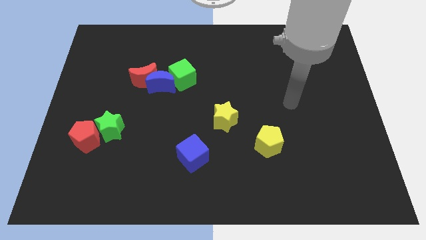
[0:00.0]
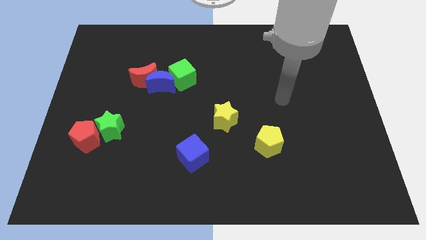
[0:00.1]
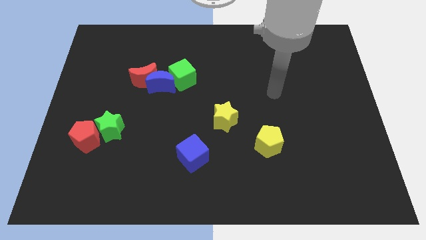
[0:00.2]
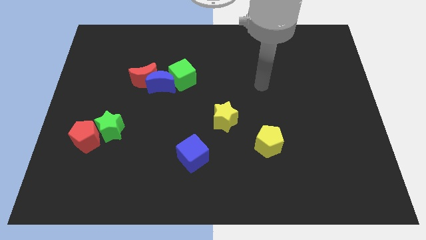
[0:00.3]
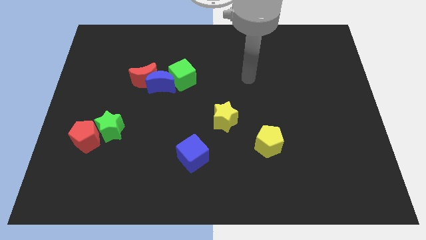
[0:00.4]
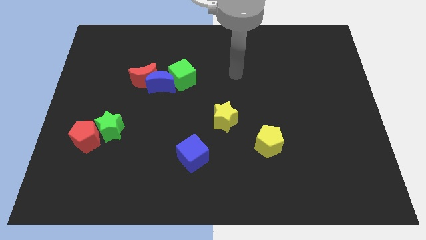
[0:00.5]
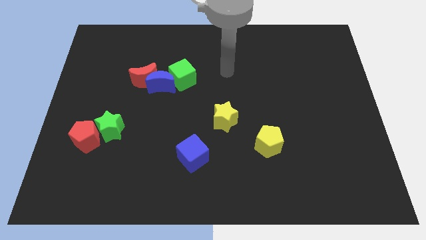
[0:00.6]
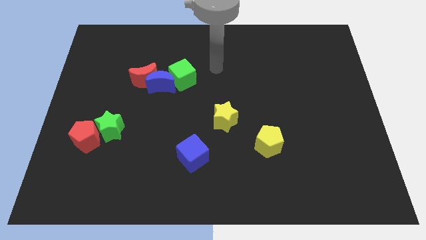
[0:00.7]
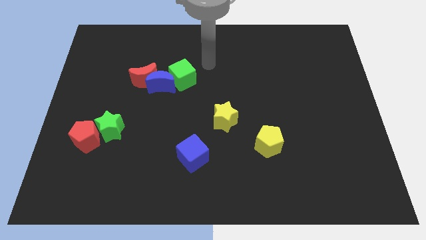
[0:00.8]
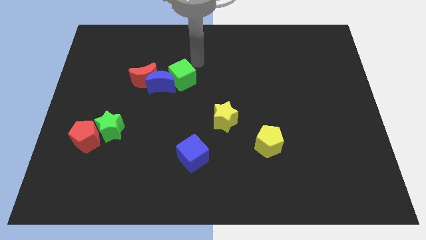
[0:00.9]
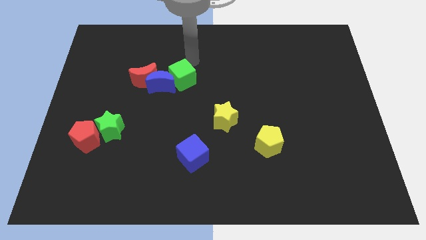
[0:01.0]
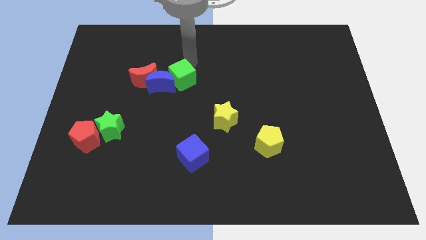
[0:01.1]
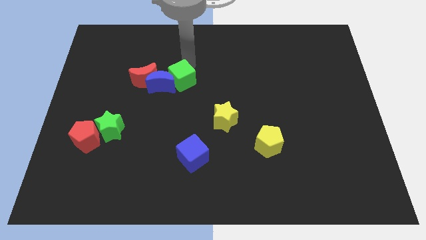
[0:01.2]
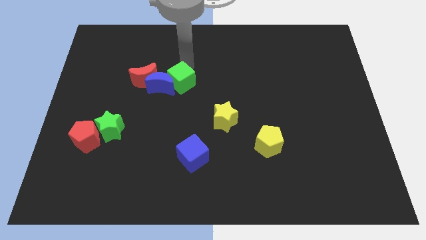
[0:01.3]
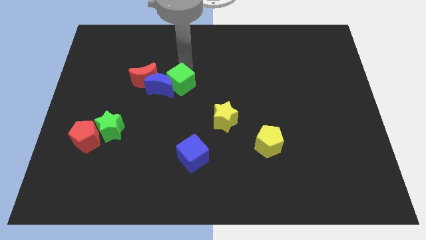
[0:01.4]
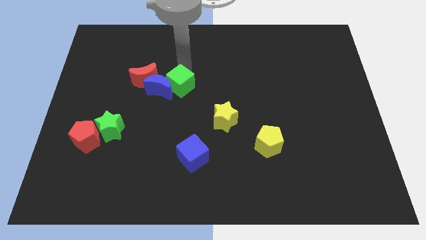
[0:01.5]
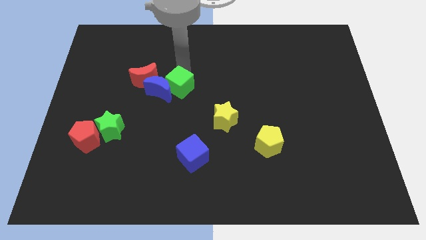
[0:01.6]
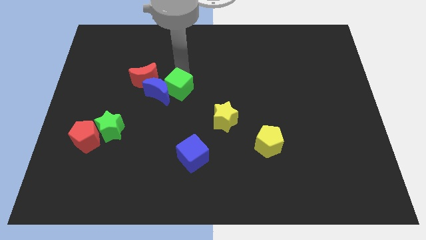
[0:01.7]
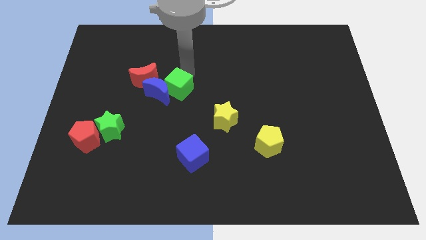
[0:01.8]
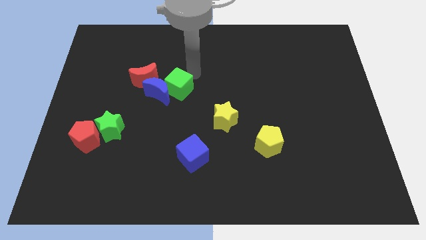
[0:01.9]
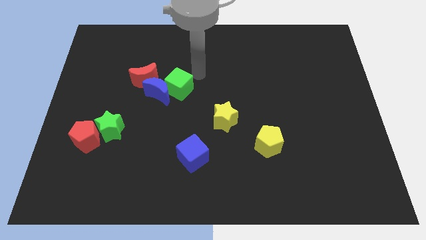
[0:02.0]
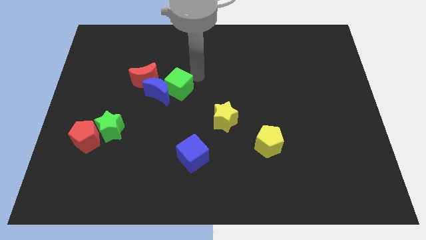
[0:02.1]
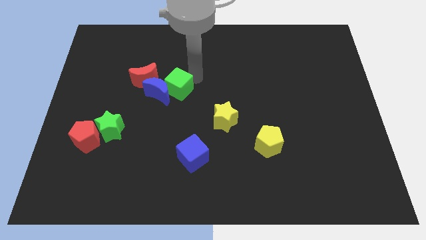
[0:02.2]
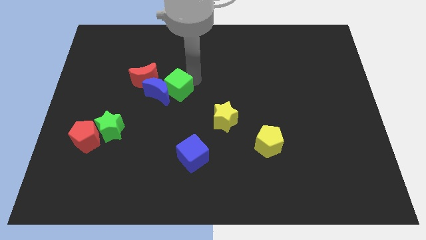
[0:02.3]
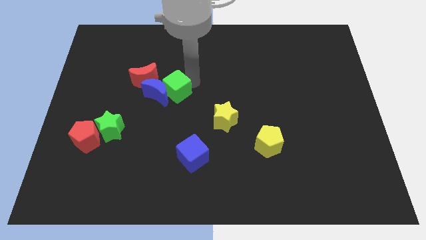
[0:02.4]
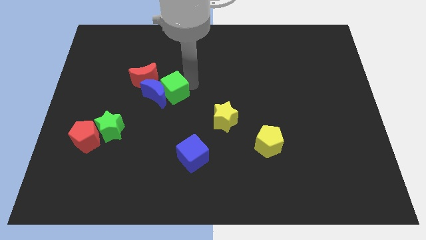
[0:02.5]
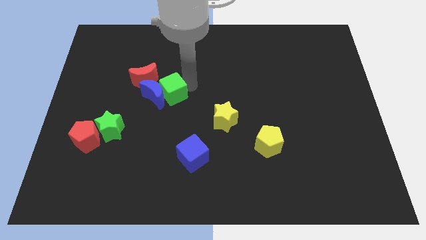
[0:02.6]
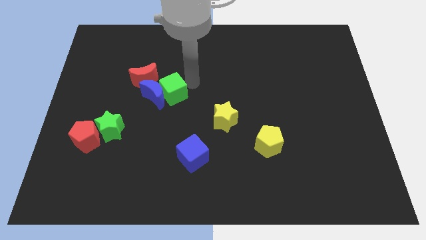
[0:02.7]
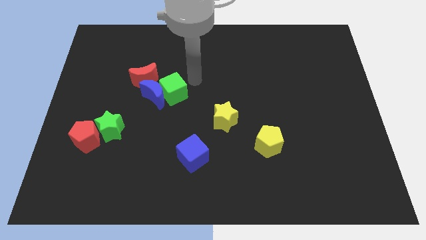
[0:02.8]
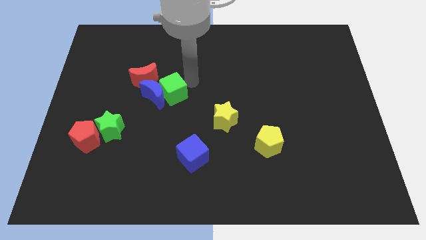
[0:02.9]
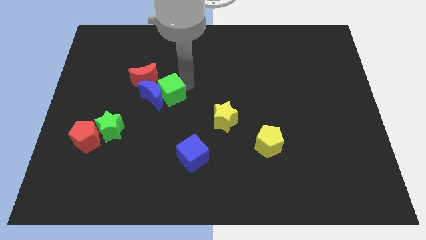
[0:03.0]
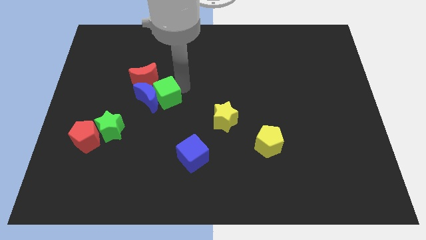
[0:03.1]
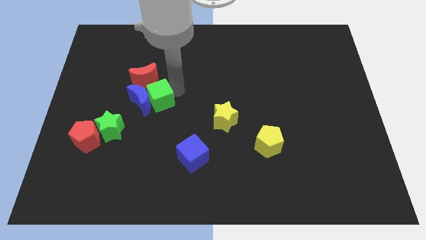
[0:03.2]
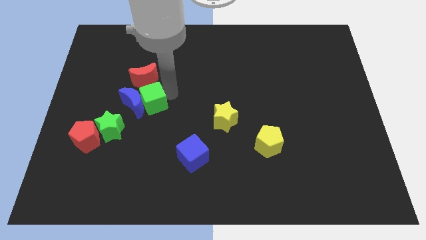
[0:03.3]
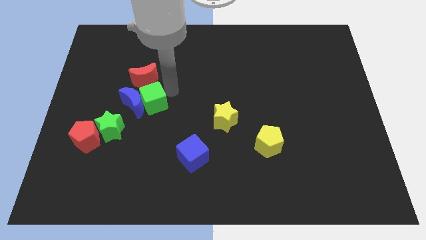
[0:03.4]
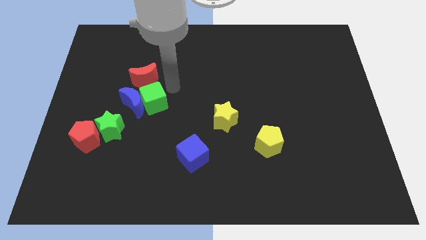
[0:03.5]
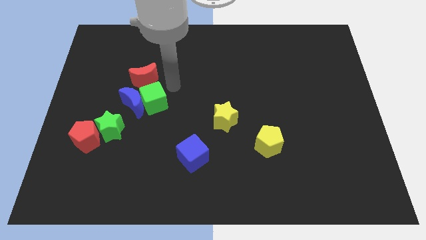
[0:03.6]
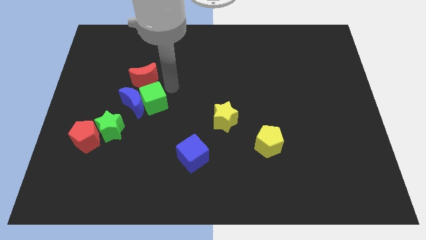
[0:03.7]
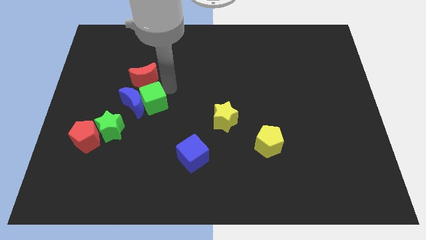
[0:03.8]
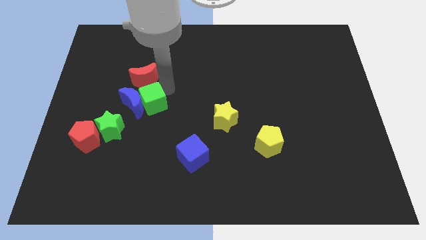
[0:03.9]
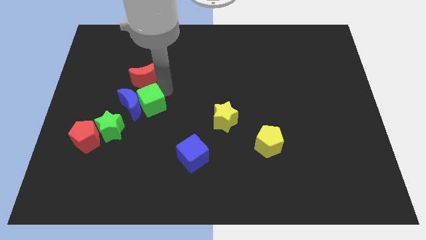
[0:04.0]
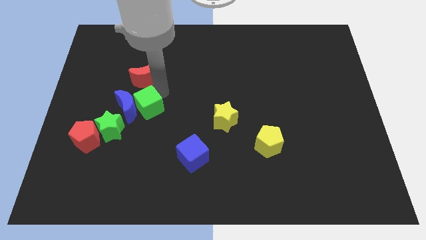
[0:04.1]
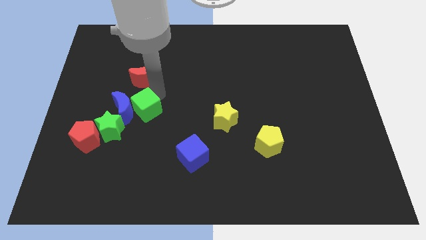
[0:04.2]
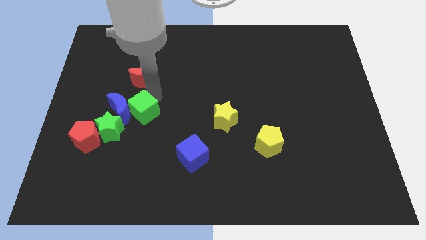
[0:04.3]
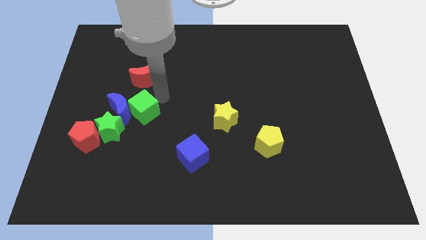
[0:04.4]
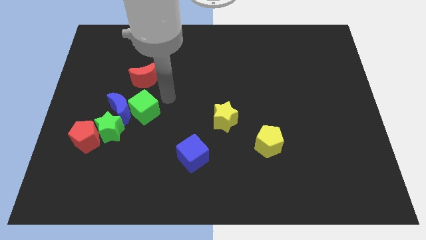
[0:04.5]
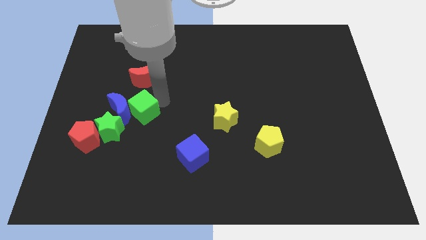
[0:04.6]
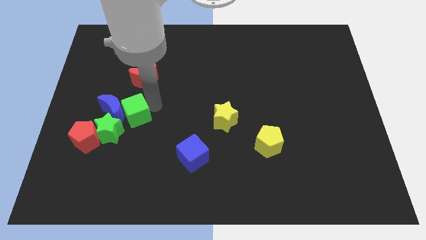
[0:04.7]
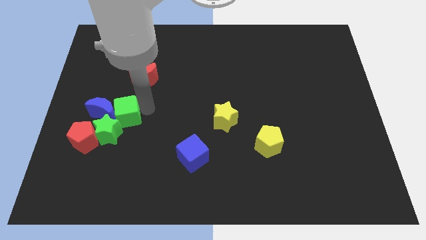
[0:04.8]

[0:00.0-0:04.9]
push the green cube next to the green star

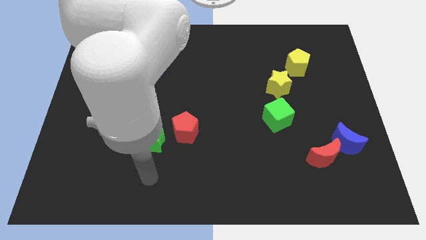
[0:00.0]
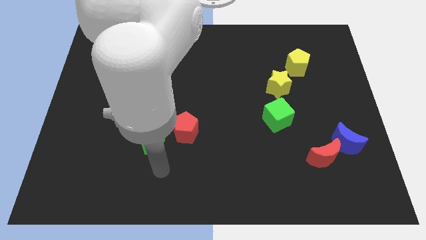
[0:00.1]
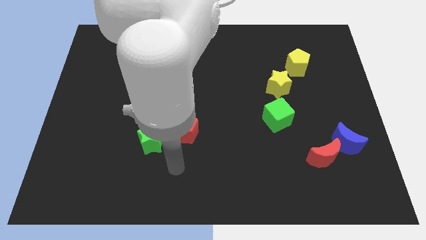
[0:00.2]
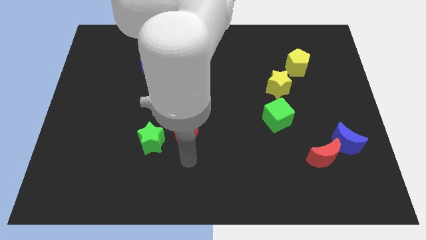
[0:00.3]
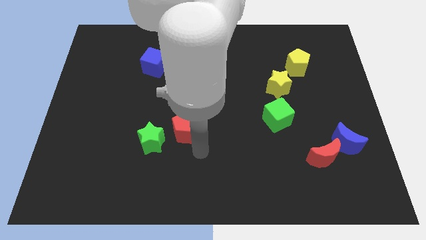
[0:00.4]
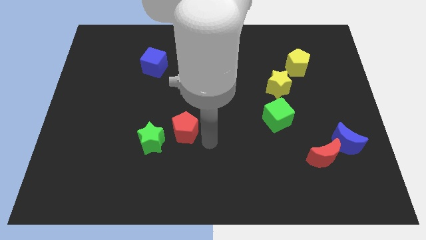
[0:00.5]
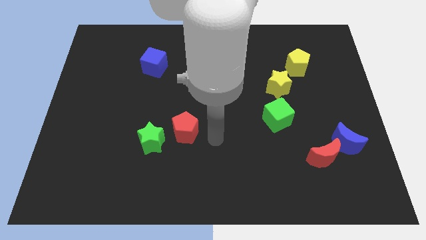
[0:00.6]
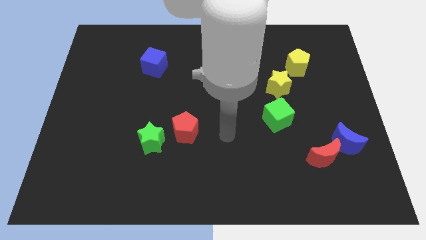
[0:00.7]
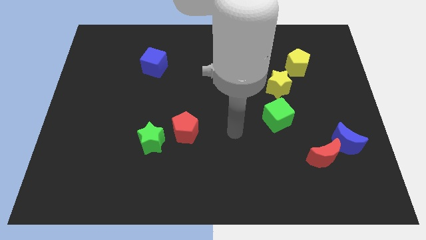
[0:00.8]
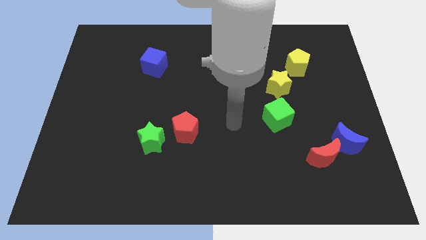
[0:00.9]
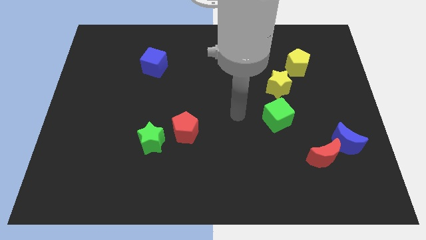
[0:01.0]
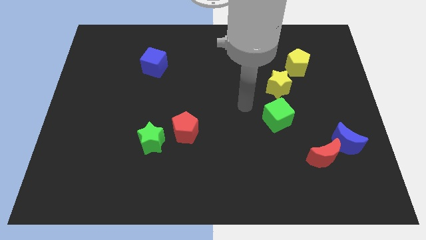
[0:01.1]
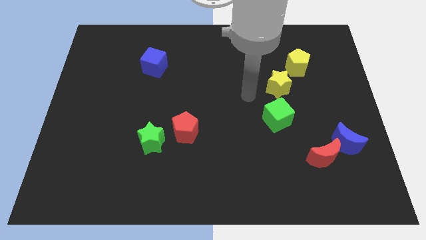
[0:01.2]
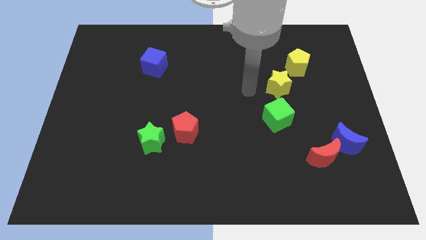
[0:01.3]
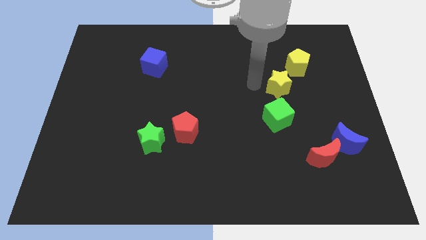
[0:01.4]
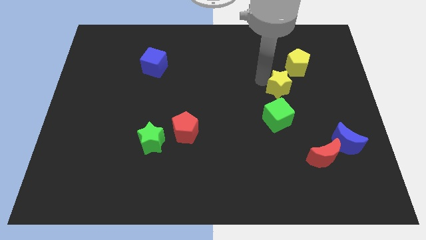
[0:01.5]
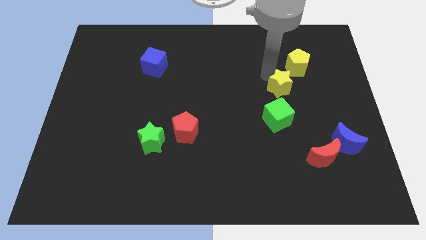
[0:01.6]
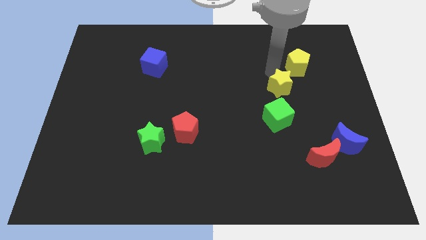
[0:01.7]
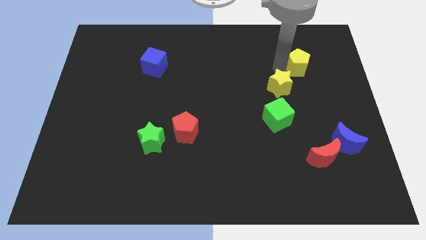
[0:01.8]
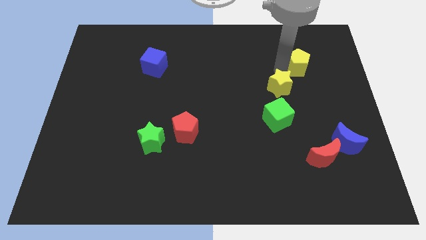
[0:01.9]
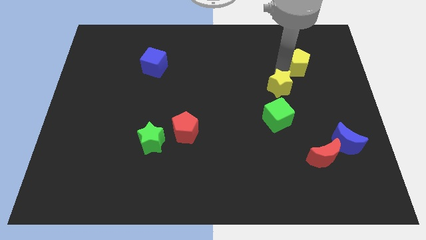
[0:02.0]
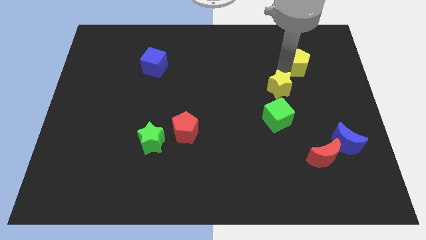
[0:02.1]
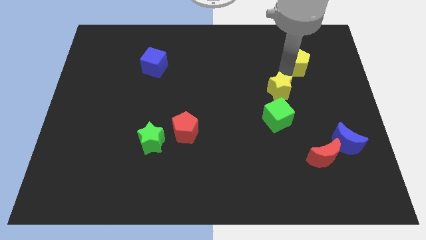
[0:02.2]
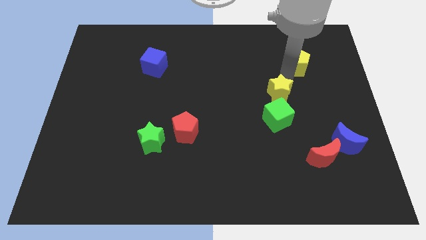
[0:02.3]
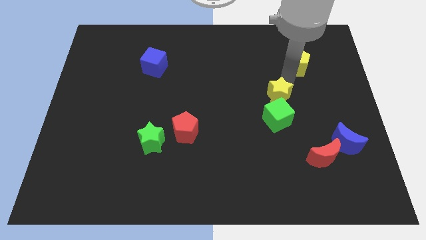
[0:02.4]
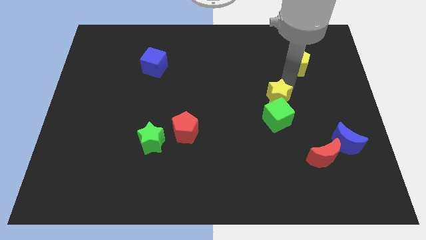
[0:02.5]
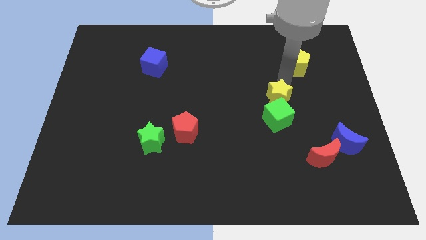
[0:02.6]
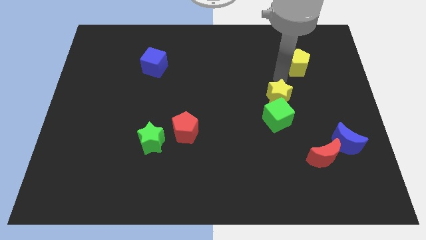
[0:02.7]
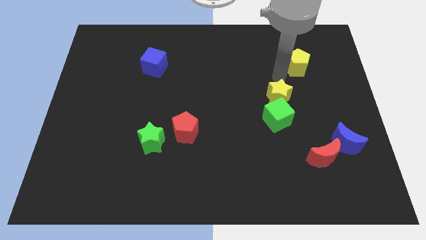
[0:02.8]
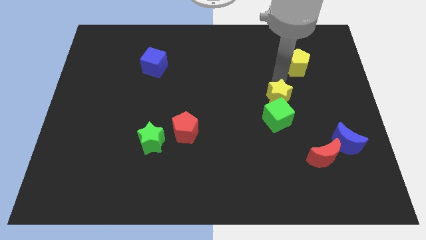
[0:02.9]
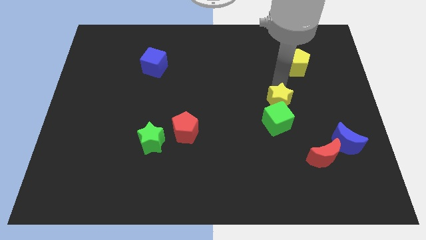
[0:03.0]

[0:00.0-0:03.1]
move the yellow star towards the green cube
